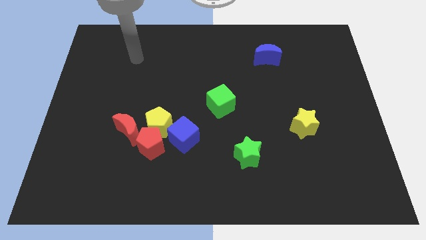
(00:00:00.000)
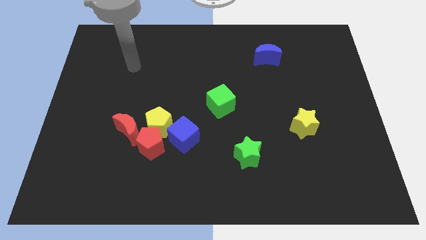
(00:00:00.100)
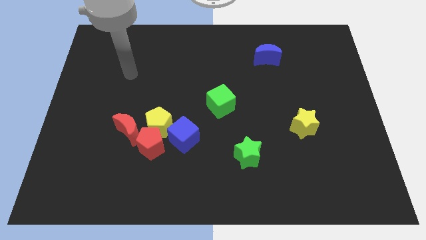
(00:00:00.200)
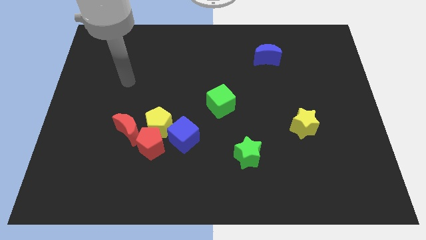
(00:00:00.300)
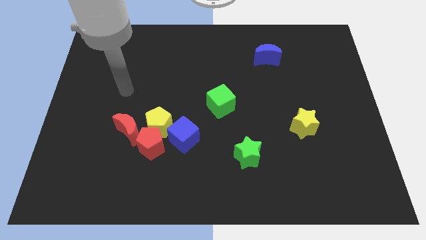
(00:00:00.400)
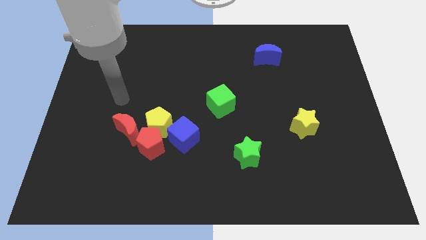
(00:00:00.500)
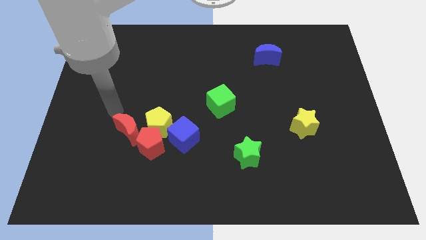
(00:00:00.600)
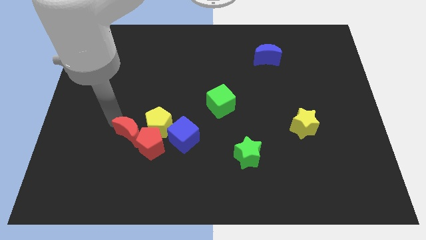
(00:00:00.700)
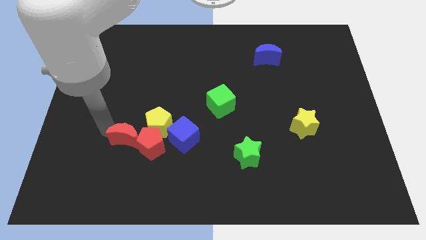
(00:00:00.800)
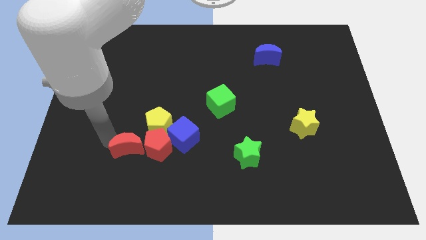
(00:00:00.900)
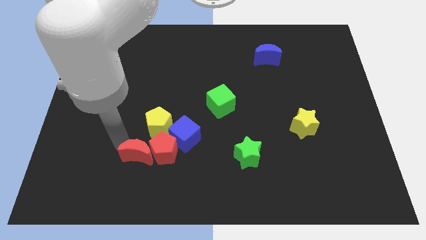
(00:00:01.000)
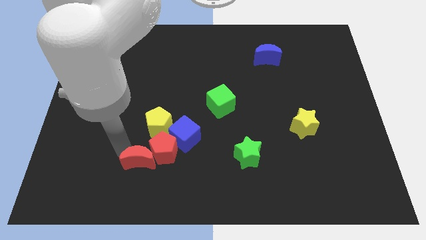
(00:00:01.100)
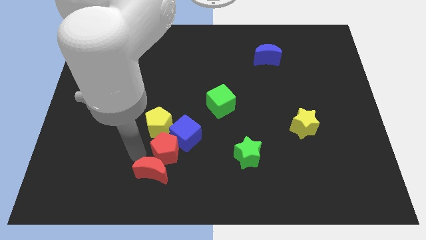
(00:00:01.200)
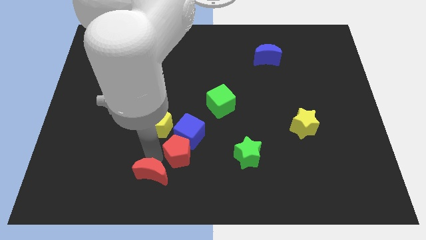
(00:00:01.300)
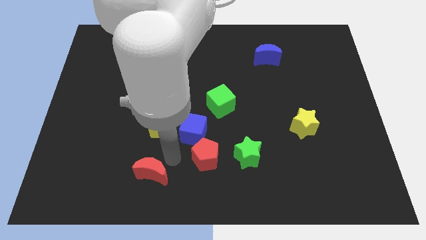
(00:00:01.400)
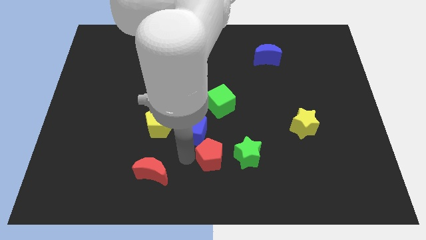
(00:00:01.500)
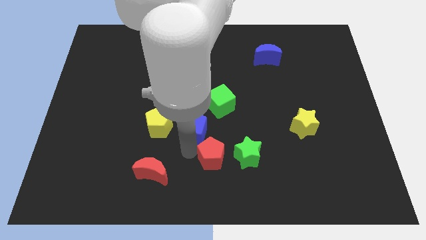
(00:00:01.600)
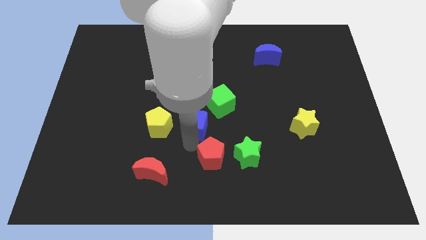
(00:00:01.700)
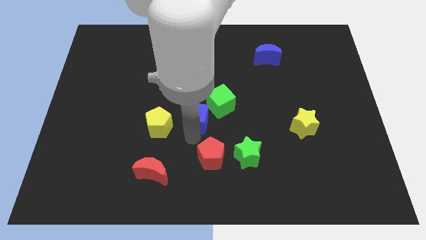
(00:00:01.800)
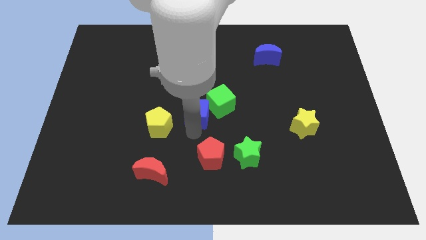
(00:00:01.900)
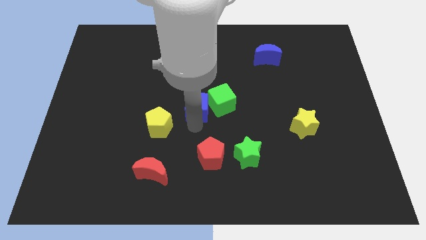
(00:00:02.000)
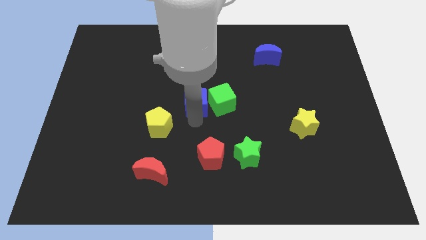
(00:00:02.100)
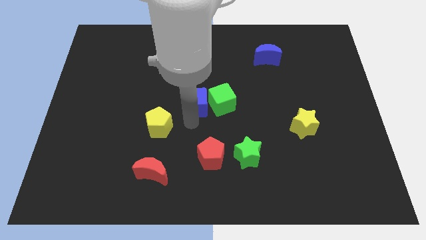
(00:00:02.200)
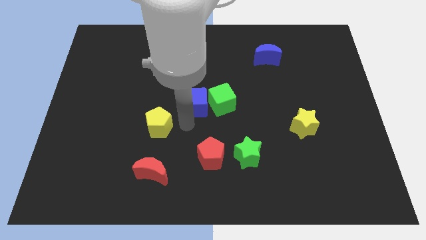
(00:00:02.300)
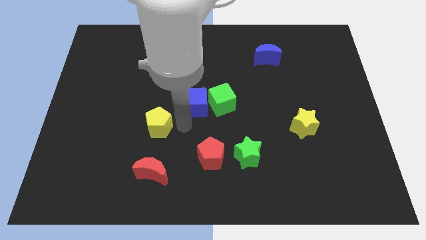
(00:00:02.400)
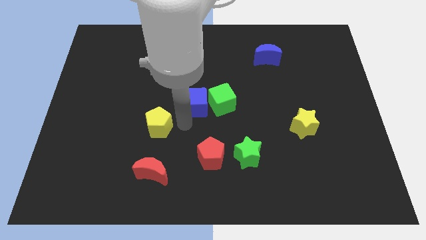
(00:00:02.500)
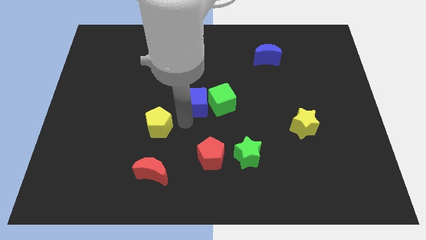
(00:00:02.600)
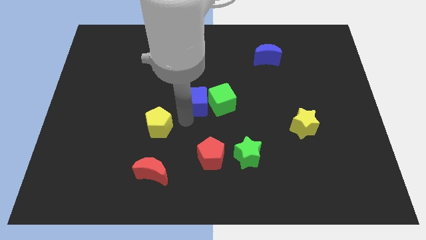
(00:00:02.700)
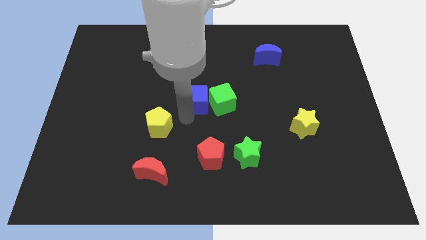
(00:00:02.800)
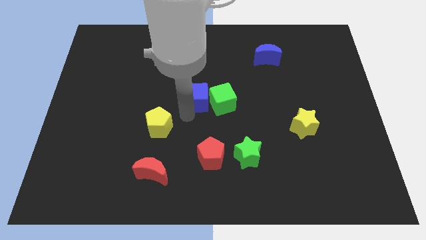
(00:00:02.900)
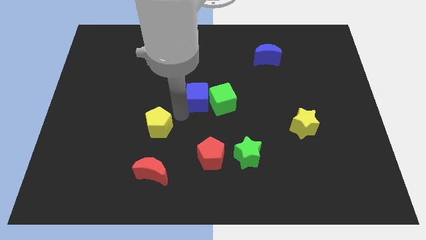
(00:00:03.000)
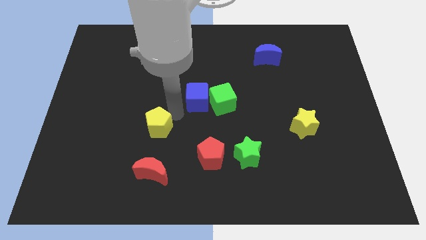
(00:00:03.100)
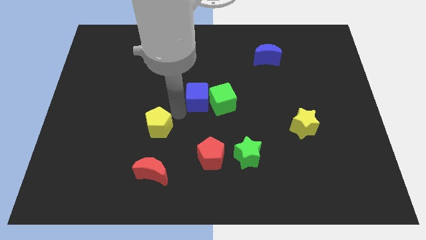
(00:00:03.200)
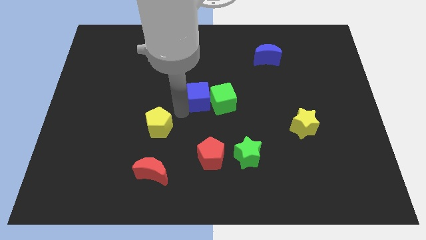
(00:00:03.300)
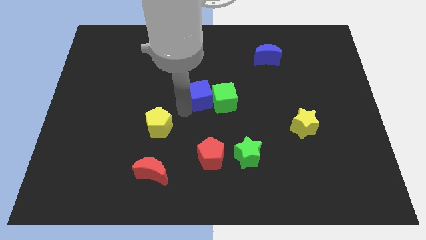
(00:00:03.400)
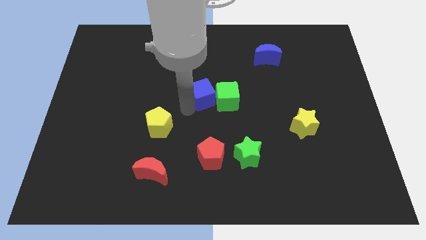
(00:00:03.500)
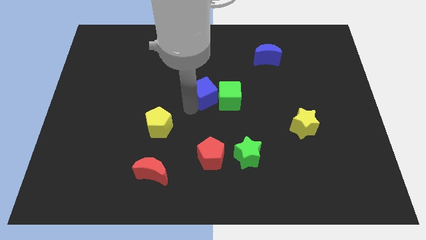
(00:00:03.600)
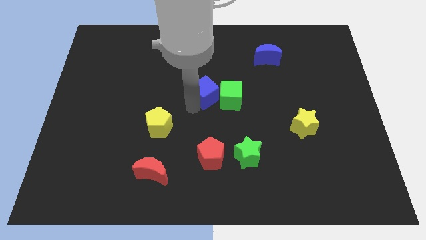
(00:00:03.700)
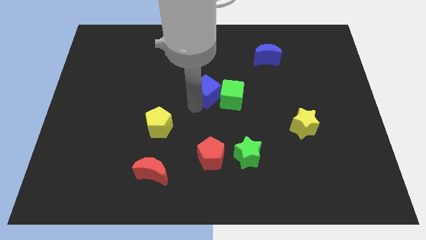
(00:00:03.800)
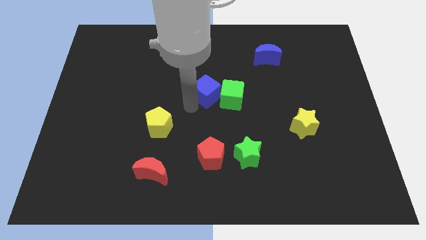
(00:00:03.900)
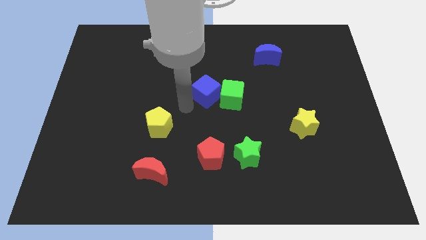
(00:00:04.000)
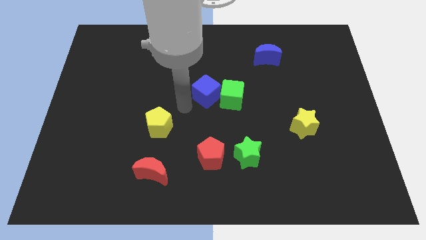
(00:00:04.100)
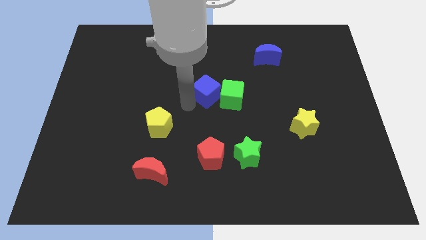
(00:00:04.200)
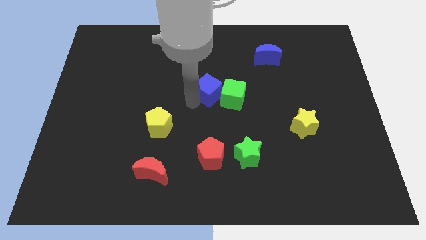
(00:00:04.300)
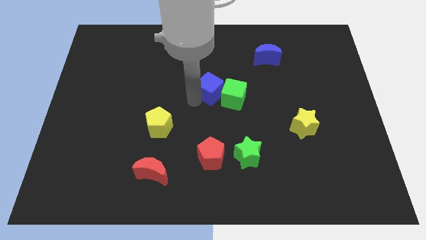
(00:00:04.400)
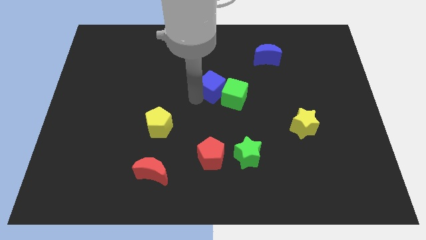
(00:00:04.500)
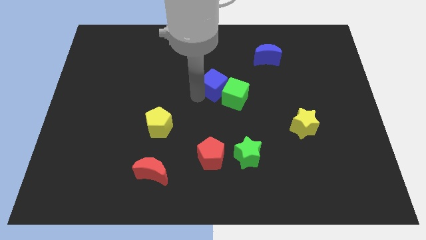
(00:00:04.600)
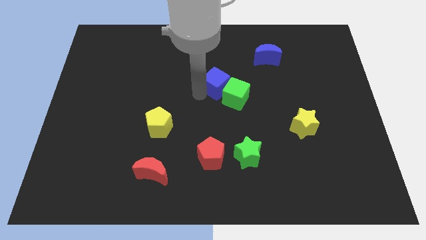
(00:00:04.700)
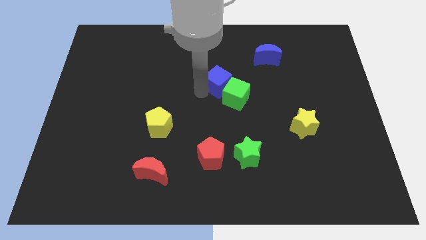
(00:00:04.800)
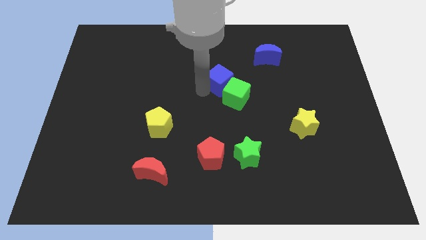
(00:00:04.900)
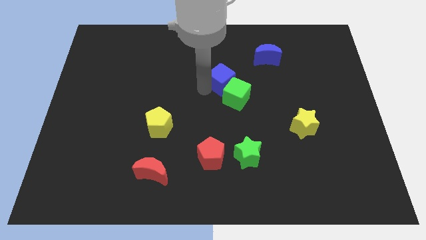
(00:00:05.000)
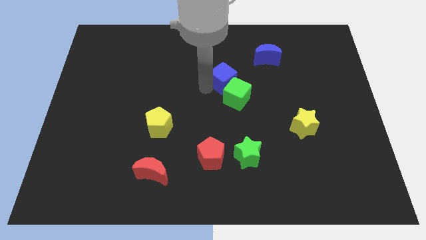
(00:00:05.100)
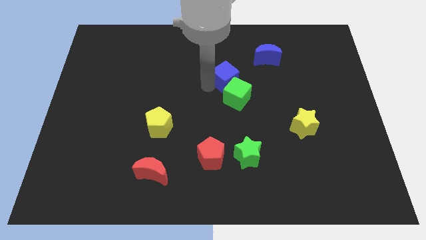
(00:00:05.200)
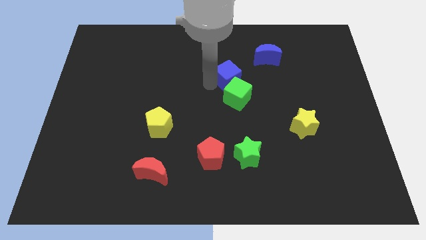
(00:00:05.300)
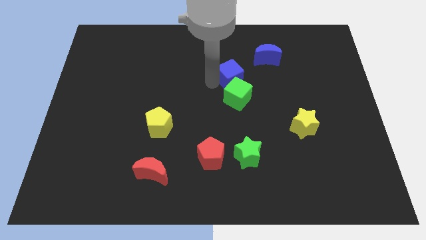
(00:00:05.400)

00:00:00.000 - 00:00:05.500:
push the blue cube to the bottom left side of the blue moon

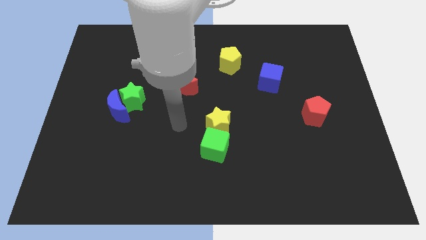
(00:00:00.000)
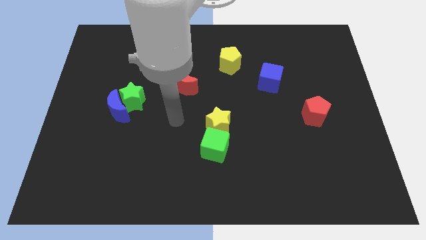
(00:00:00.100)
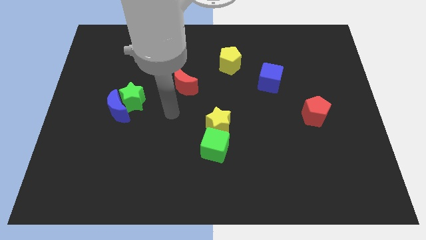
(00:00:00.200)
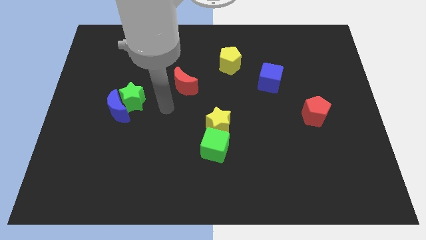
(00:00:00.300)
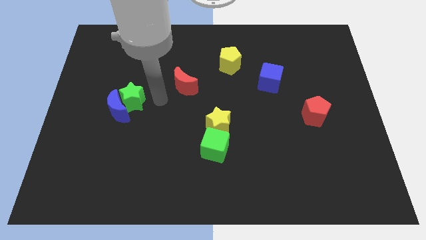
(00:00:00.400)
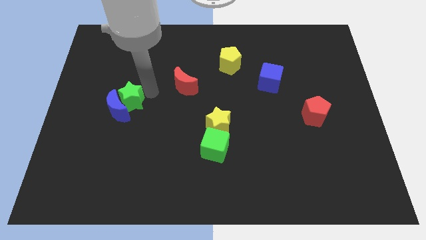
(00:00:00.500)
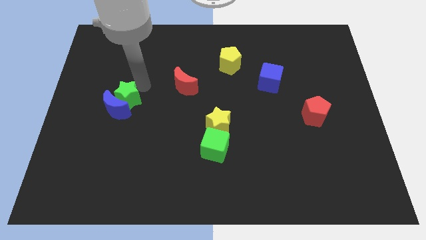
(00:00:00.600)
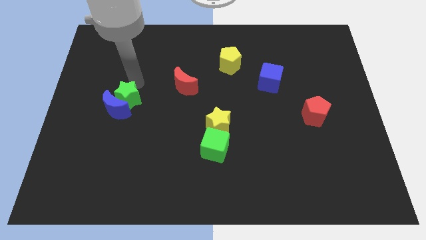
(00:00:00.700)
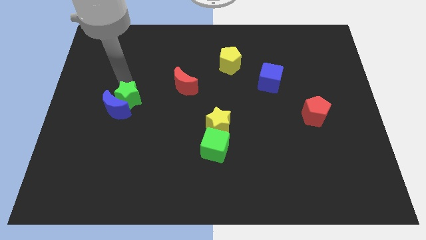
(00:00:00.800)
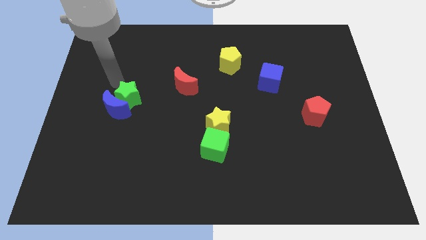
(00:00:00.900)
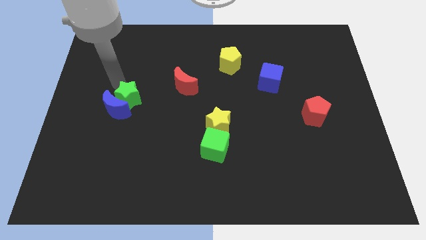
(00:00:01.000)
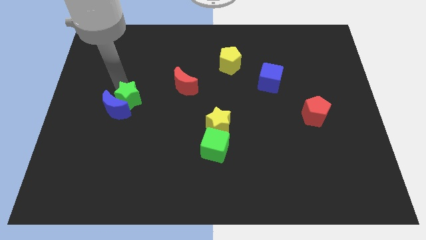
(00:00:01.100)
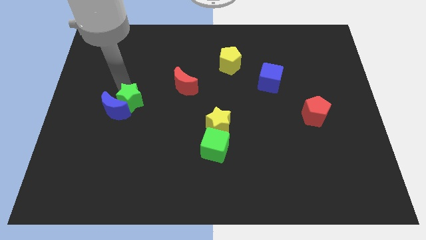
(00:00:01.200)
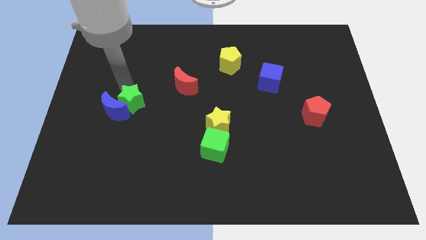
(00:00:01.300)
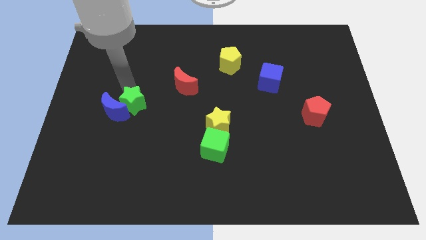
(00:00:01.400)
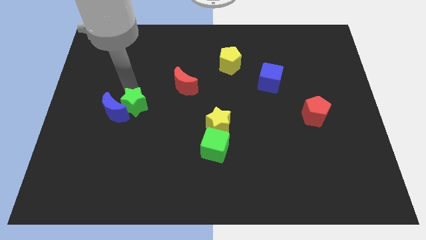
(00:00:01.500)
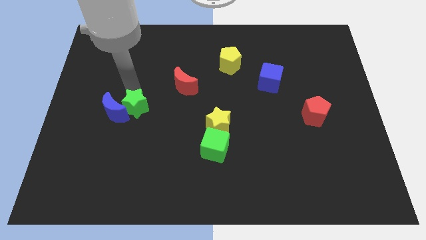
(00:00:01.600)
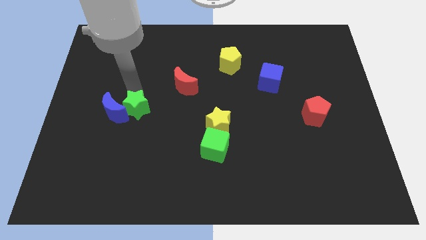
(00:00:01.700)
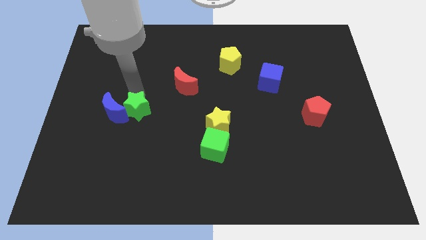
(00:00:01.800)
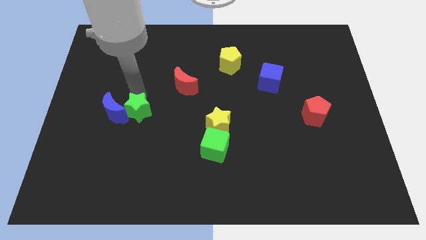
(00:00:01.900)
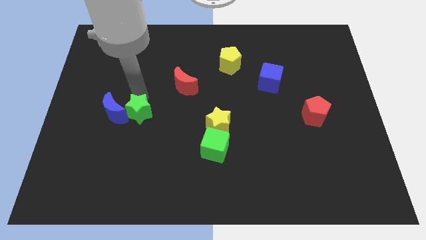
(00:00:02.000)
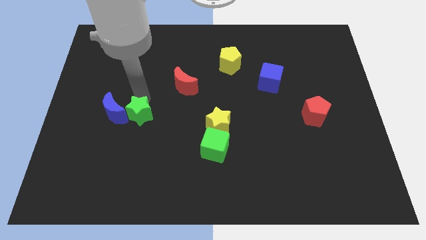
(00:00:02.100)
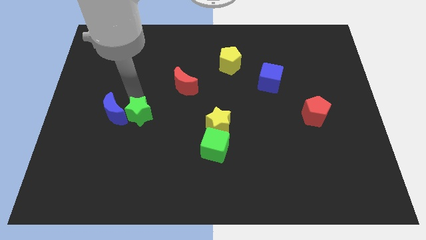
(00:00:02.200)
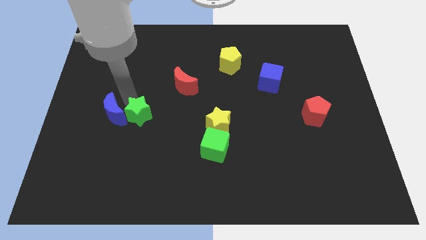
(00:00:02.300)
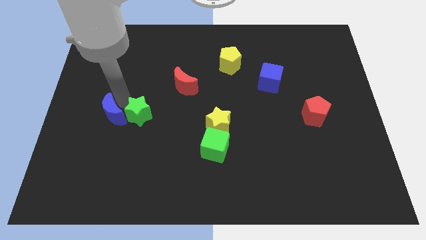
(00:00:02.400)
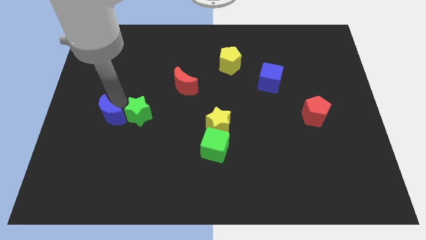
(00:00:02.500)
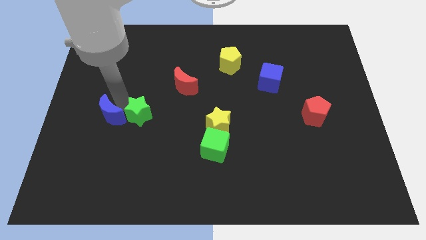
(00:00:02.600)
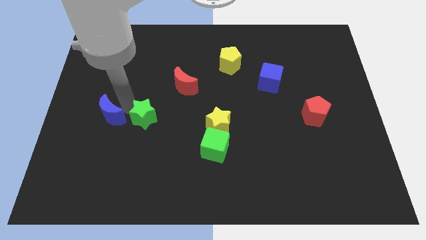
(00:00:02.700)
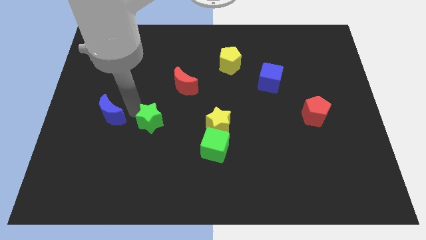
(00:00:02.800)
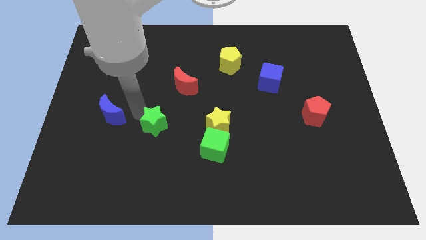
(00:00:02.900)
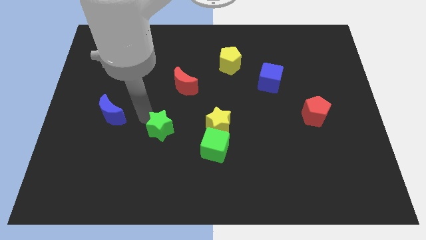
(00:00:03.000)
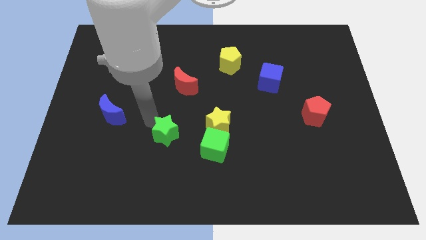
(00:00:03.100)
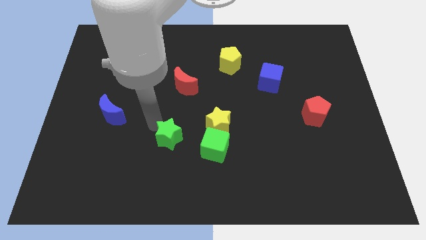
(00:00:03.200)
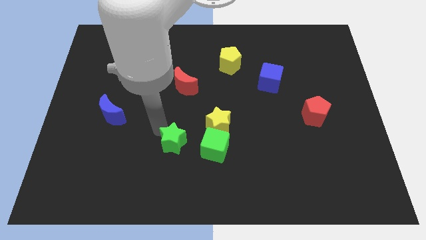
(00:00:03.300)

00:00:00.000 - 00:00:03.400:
move the green star diagonally down and to the left of the yellow star
